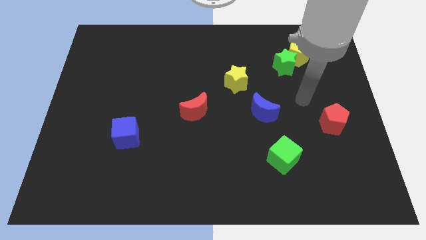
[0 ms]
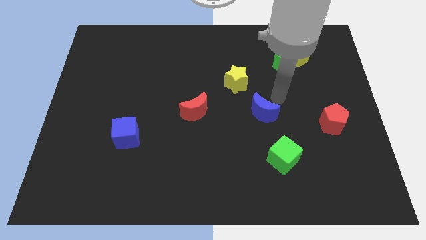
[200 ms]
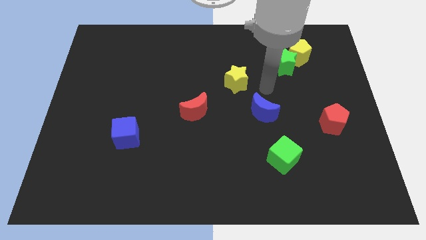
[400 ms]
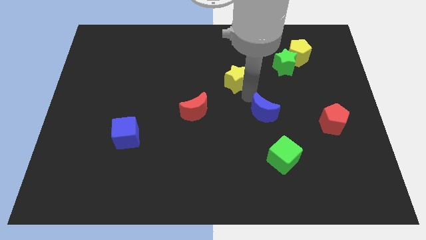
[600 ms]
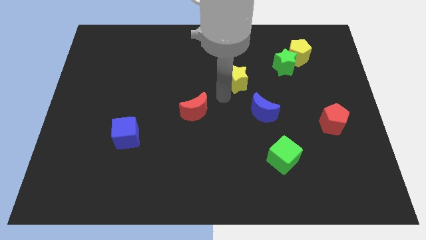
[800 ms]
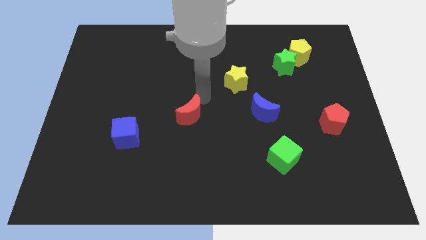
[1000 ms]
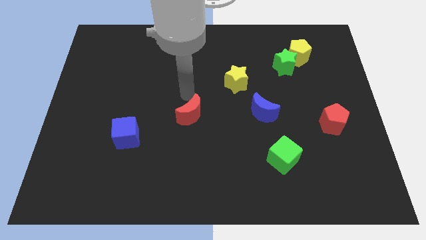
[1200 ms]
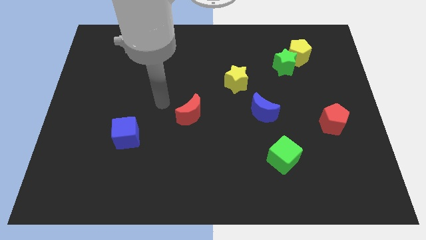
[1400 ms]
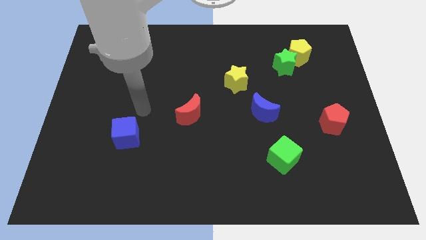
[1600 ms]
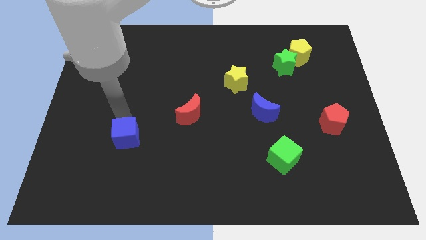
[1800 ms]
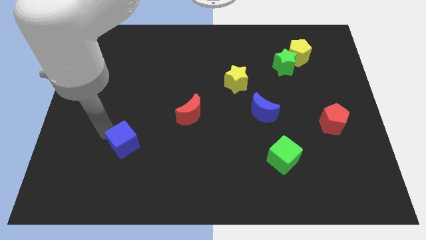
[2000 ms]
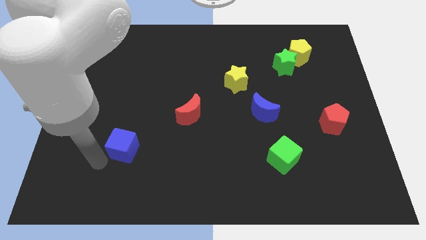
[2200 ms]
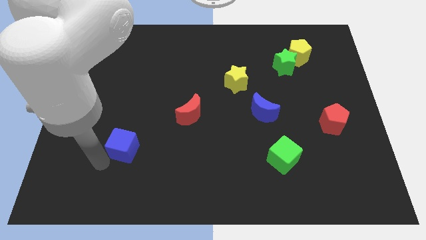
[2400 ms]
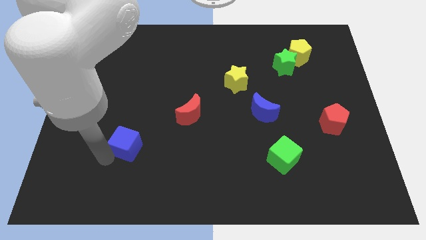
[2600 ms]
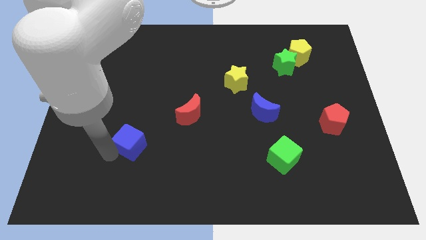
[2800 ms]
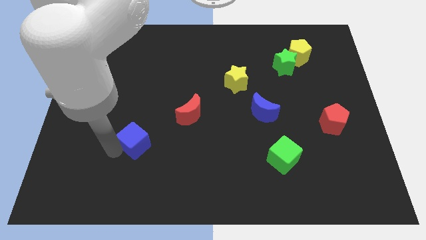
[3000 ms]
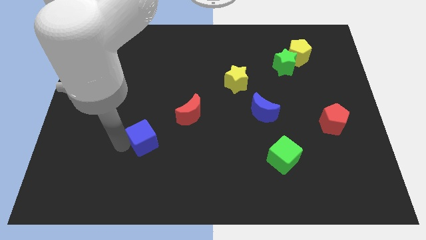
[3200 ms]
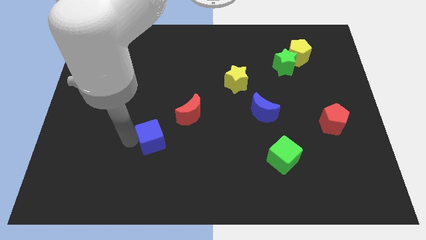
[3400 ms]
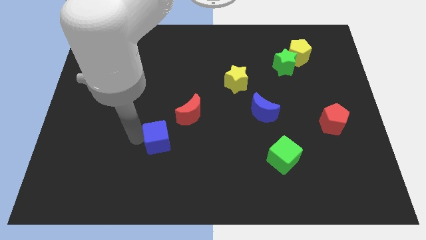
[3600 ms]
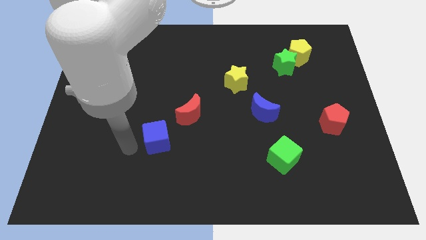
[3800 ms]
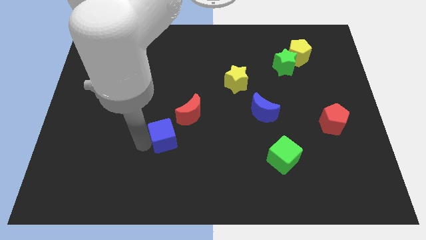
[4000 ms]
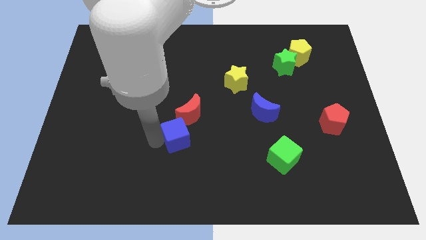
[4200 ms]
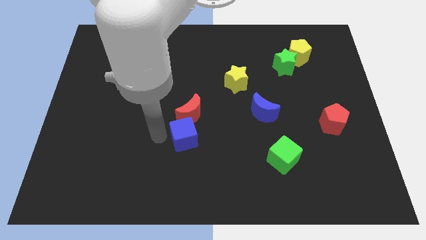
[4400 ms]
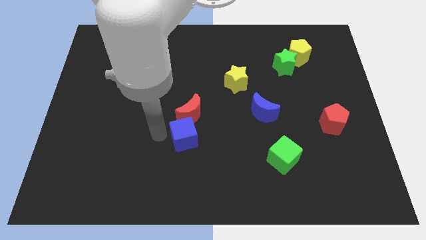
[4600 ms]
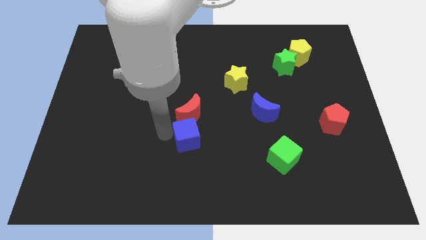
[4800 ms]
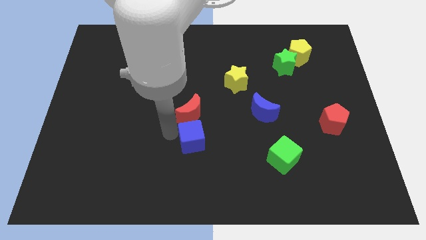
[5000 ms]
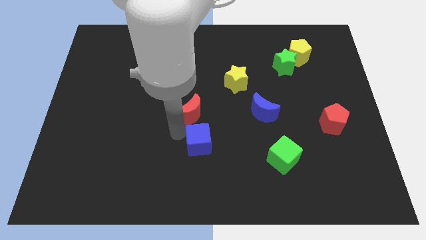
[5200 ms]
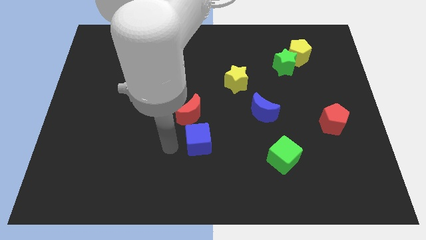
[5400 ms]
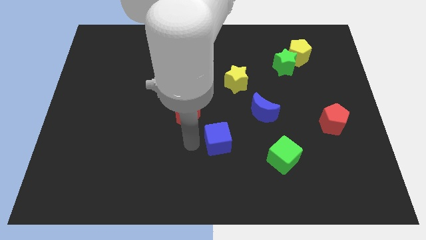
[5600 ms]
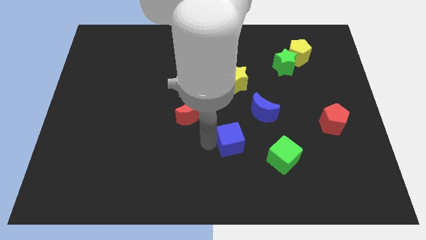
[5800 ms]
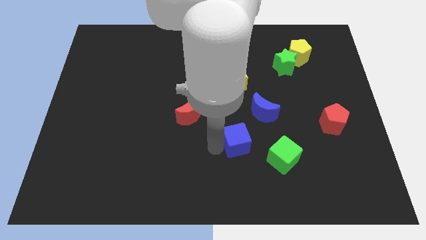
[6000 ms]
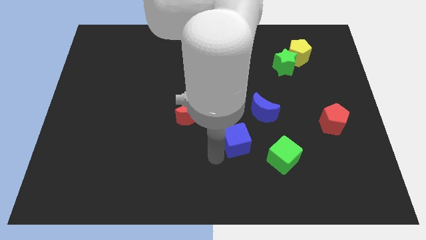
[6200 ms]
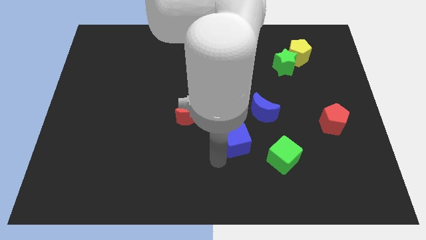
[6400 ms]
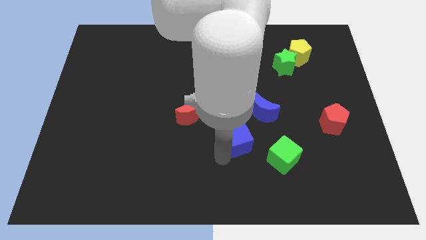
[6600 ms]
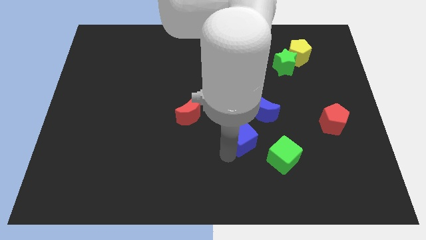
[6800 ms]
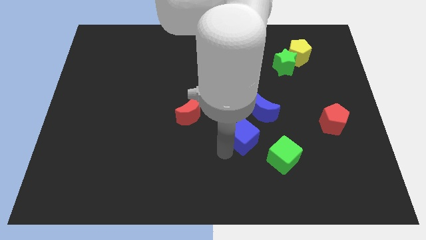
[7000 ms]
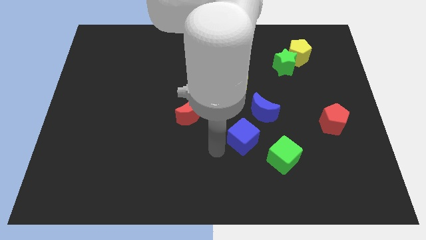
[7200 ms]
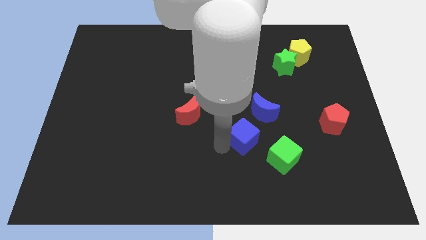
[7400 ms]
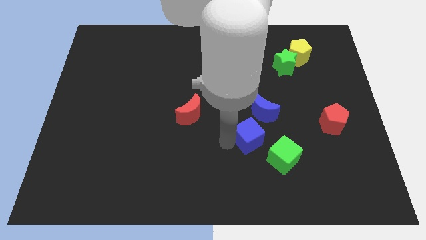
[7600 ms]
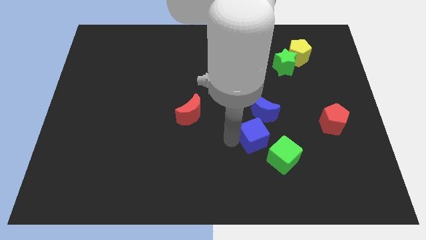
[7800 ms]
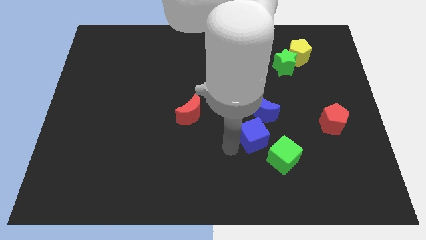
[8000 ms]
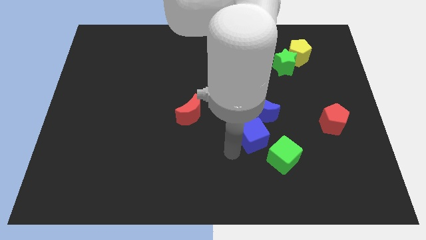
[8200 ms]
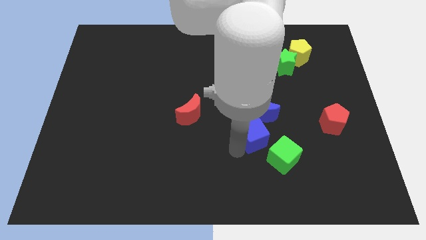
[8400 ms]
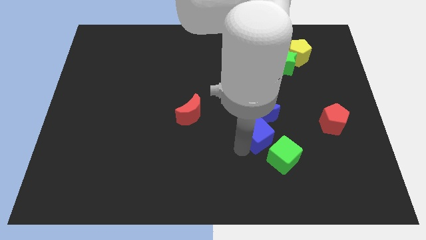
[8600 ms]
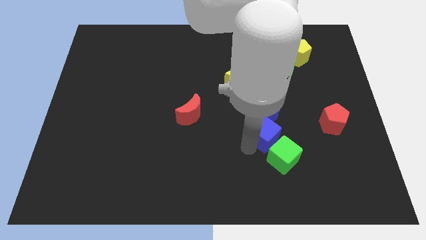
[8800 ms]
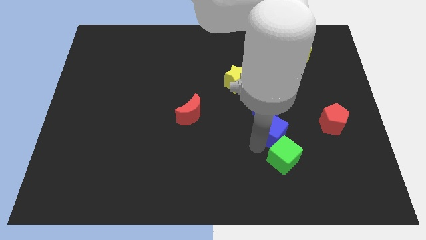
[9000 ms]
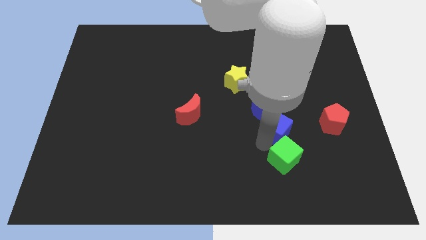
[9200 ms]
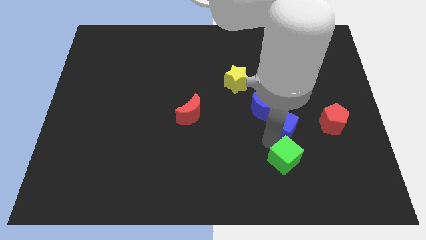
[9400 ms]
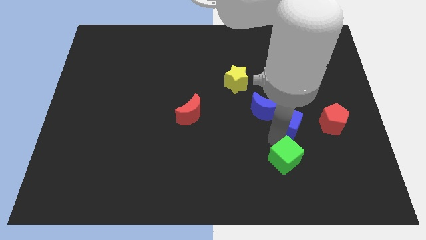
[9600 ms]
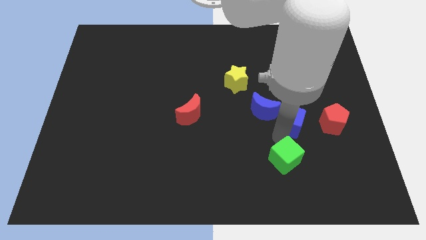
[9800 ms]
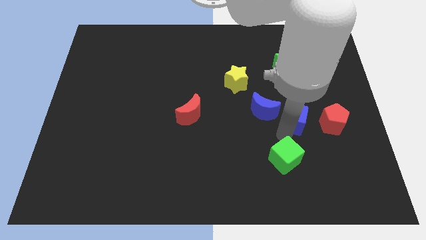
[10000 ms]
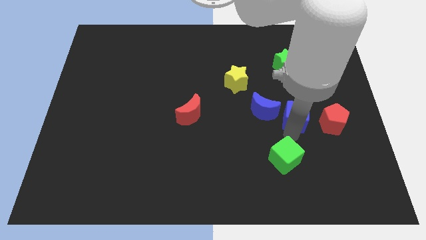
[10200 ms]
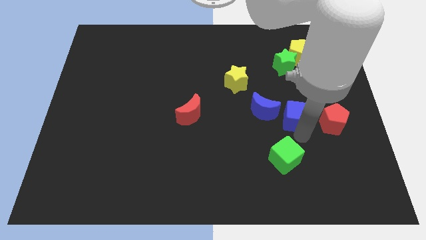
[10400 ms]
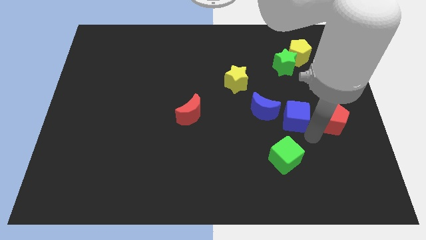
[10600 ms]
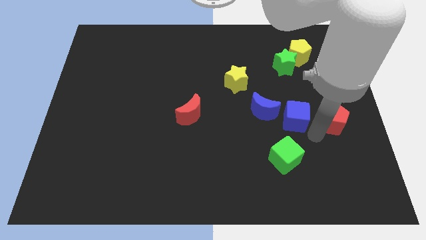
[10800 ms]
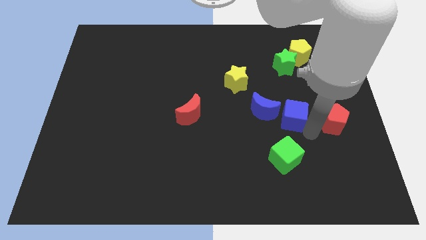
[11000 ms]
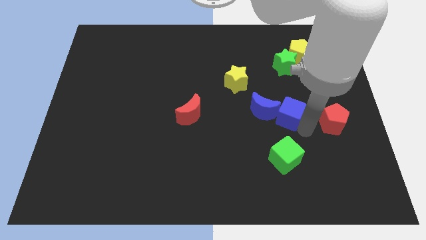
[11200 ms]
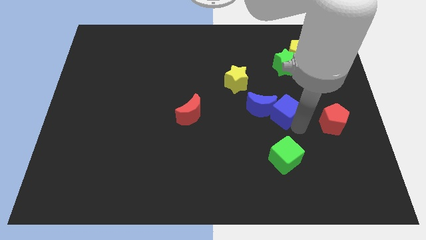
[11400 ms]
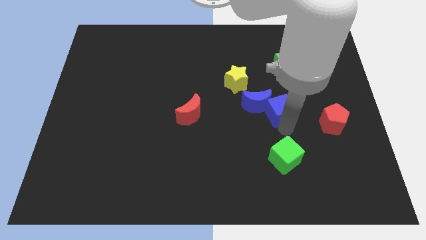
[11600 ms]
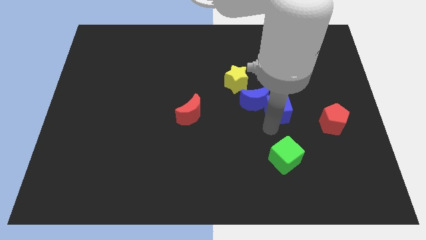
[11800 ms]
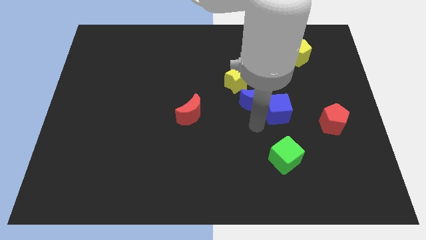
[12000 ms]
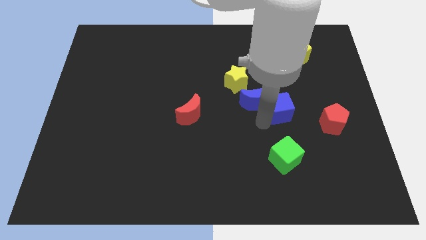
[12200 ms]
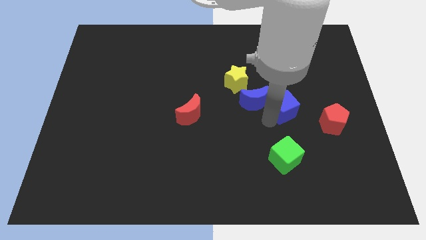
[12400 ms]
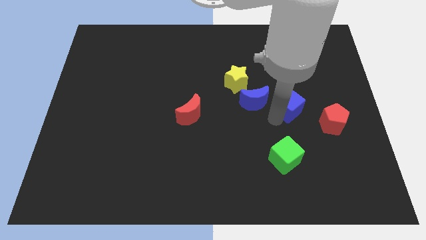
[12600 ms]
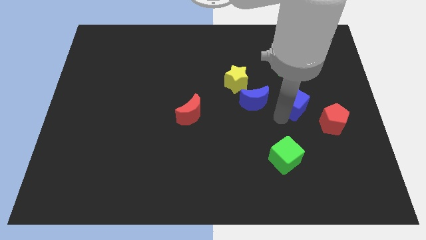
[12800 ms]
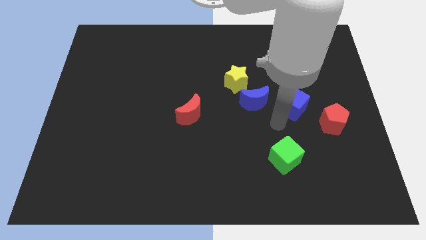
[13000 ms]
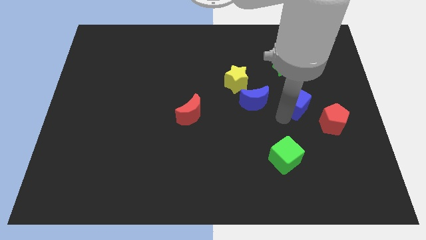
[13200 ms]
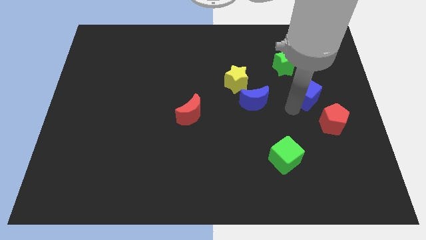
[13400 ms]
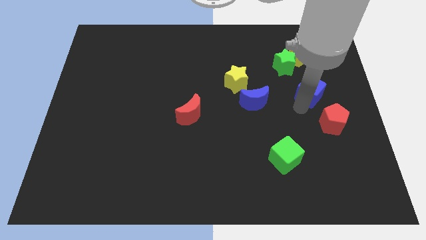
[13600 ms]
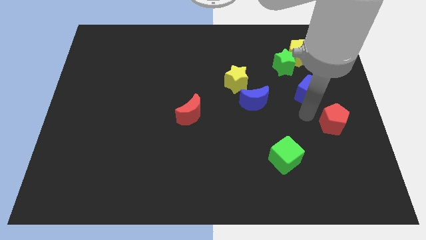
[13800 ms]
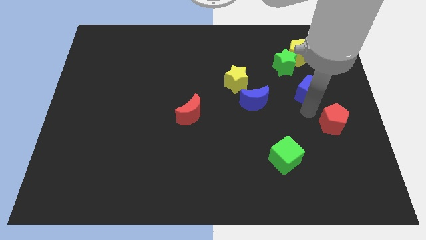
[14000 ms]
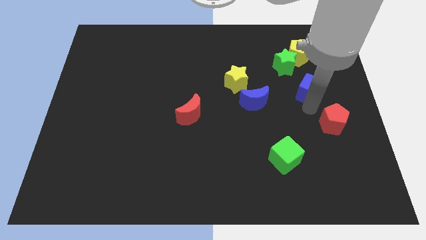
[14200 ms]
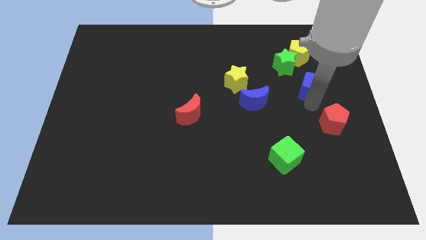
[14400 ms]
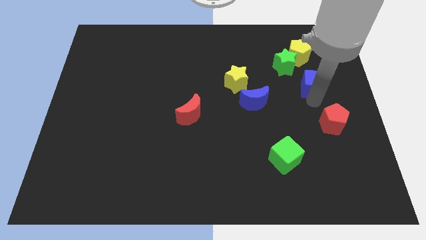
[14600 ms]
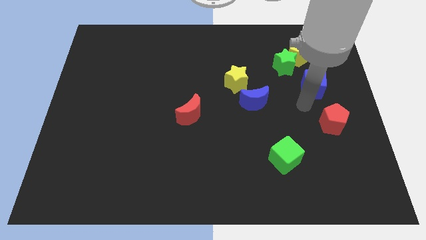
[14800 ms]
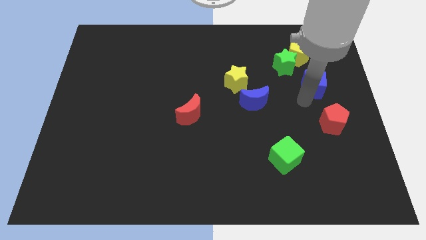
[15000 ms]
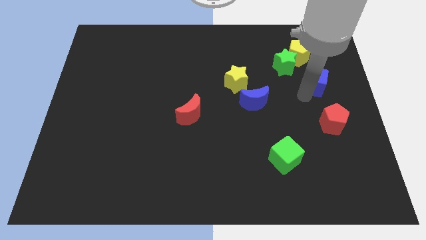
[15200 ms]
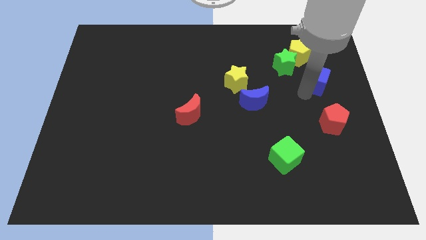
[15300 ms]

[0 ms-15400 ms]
put the blue cube to the bottom right side of the yellow pentagon
